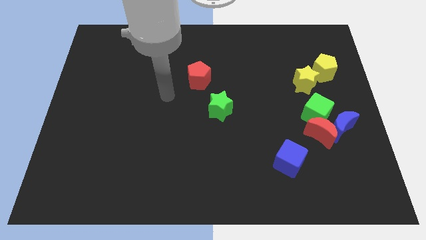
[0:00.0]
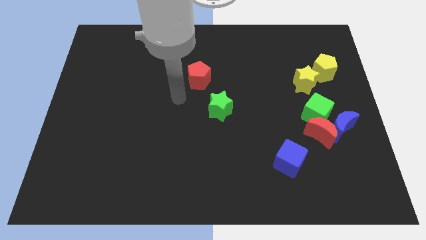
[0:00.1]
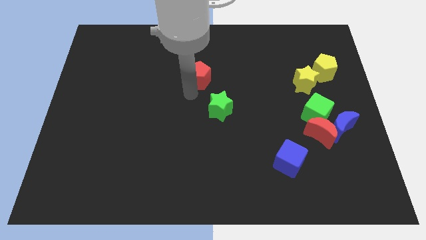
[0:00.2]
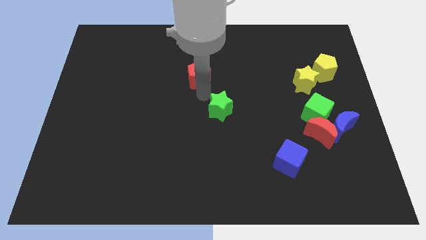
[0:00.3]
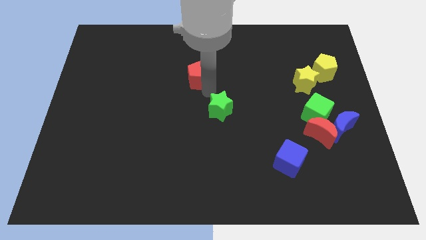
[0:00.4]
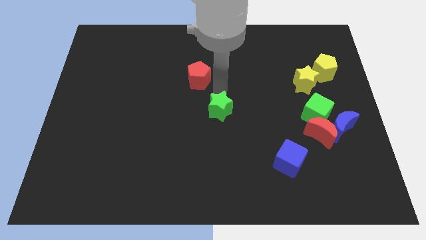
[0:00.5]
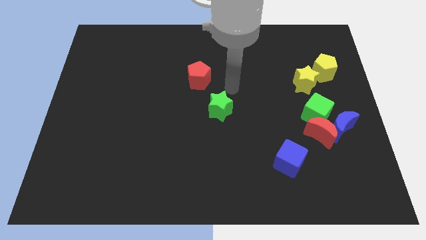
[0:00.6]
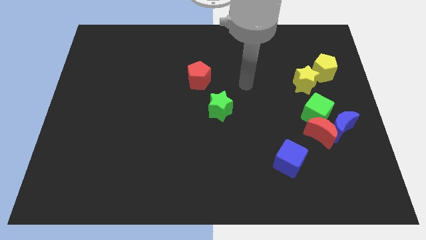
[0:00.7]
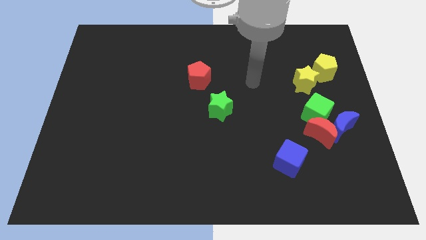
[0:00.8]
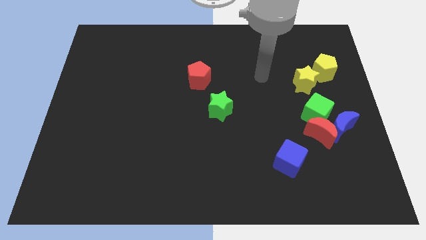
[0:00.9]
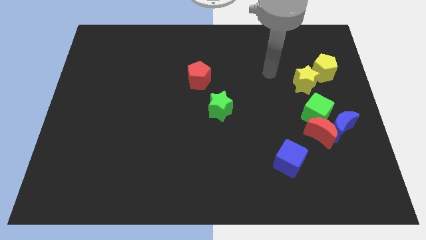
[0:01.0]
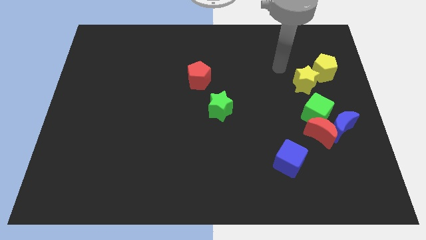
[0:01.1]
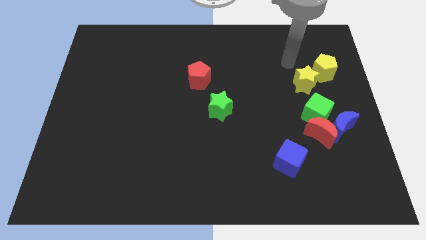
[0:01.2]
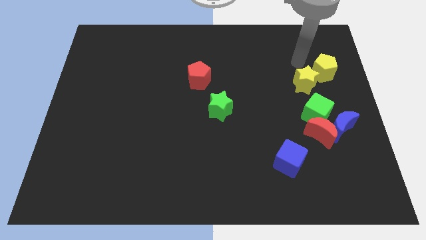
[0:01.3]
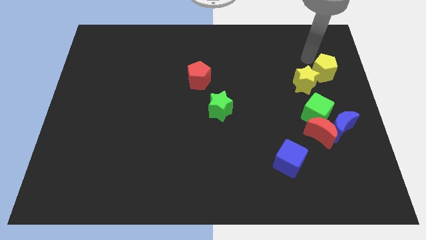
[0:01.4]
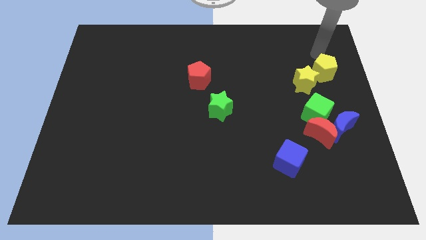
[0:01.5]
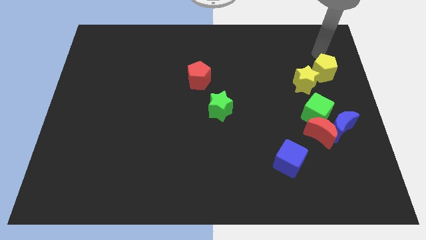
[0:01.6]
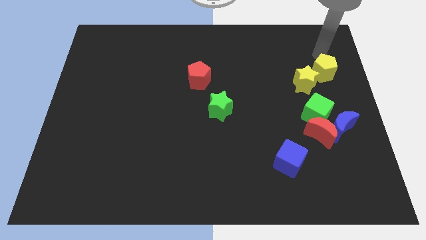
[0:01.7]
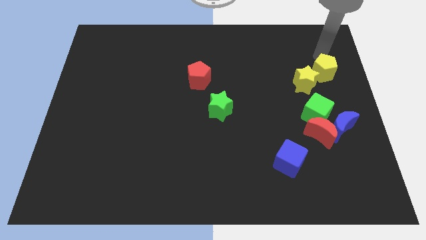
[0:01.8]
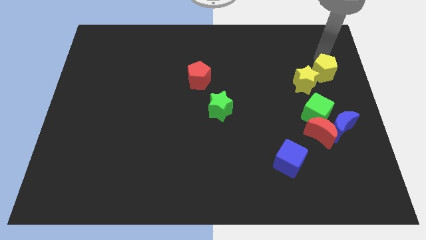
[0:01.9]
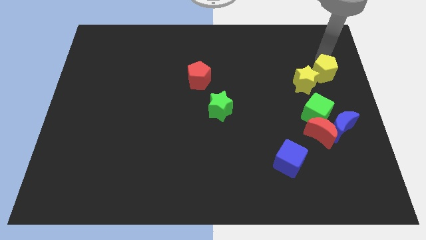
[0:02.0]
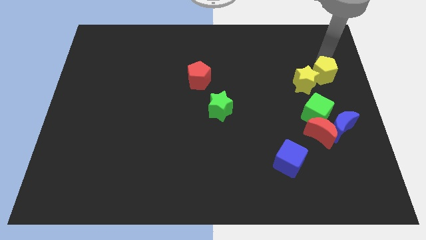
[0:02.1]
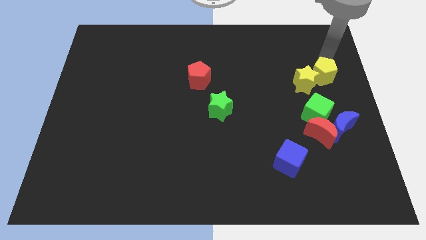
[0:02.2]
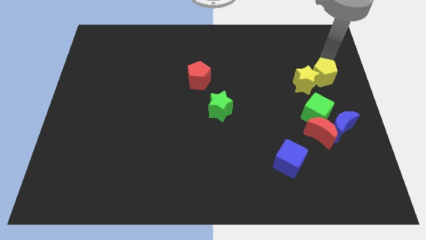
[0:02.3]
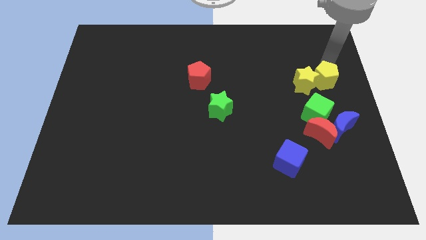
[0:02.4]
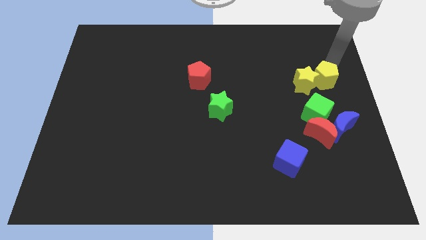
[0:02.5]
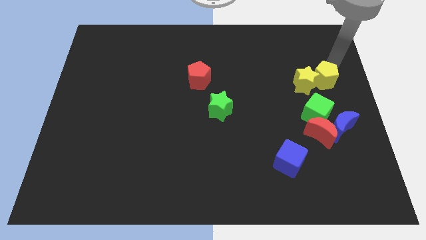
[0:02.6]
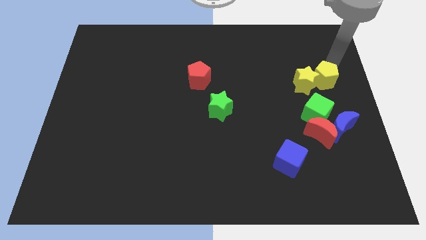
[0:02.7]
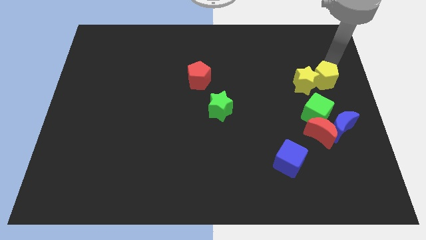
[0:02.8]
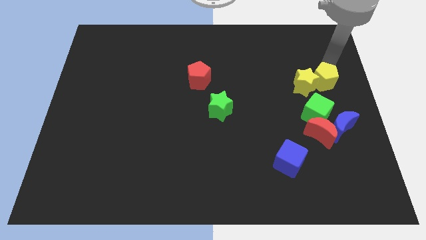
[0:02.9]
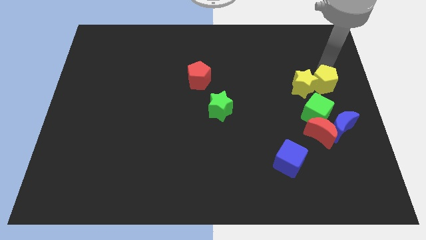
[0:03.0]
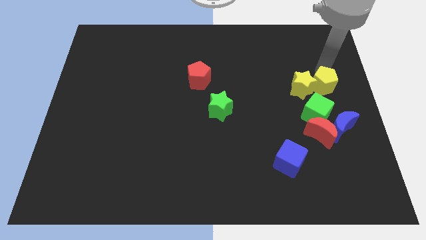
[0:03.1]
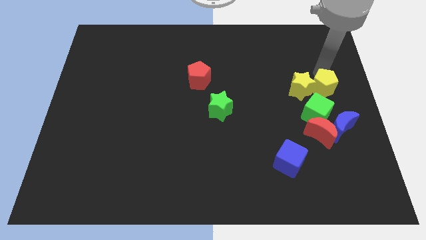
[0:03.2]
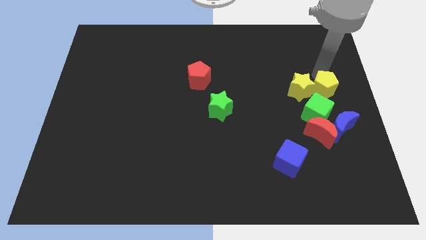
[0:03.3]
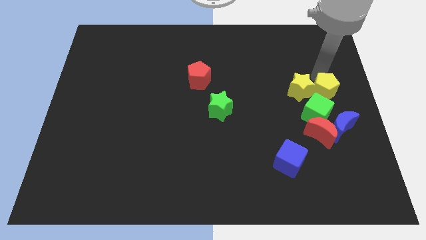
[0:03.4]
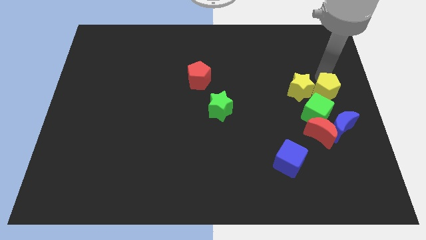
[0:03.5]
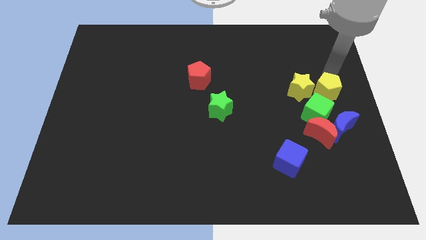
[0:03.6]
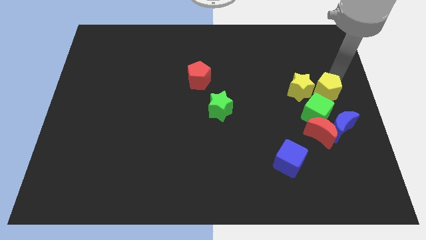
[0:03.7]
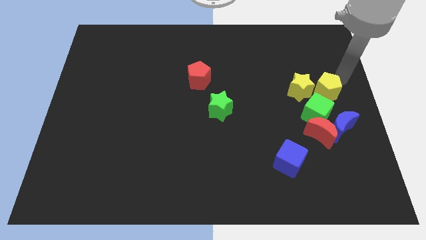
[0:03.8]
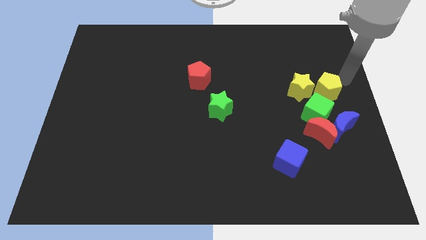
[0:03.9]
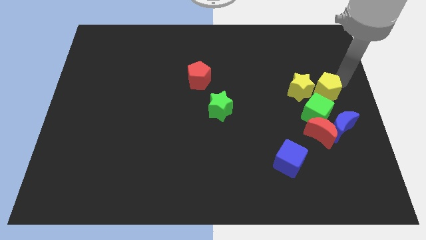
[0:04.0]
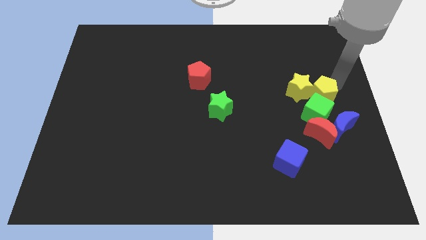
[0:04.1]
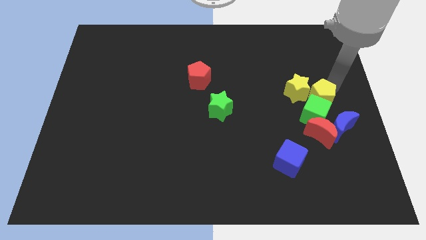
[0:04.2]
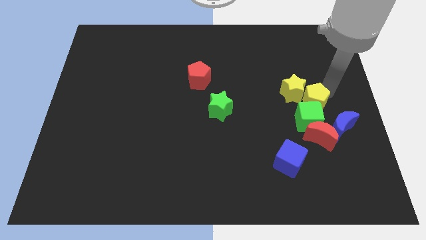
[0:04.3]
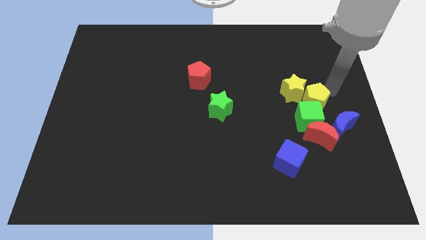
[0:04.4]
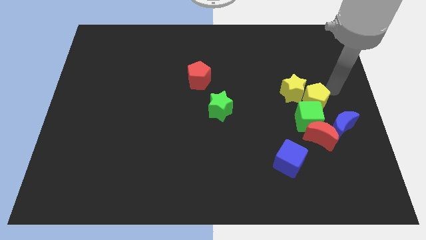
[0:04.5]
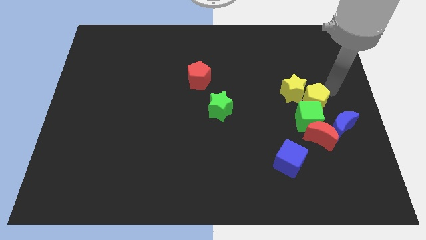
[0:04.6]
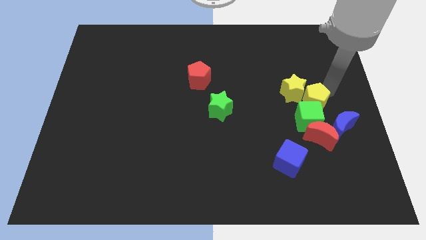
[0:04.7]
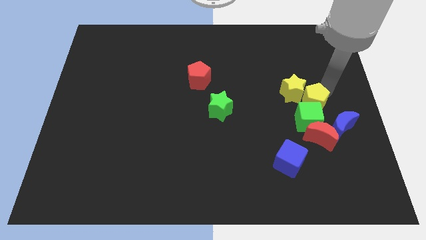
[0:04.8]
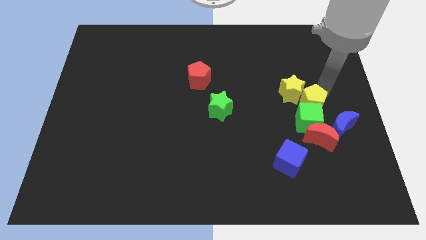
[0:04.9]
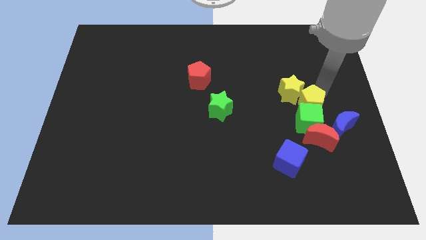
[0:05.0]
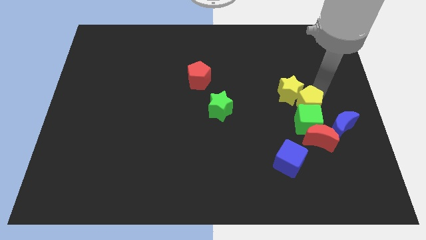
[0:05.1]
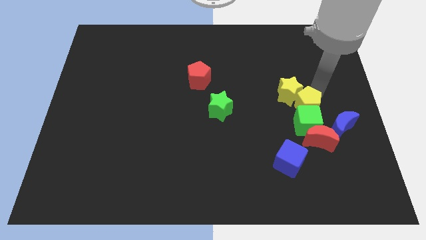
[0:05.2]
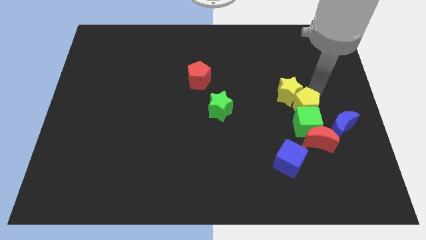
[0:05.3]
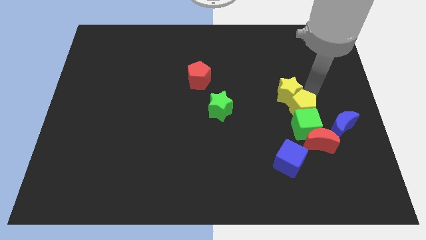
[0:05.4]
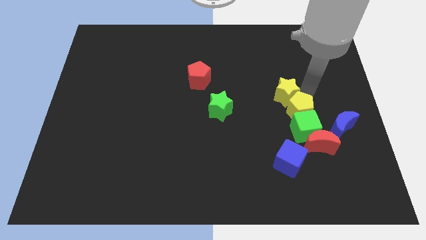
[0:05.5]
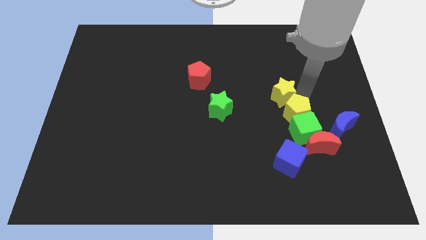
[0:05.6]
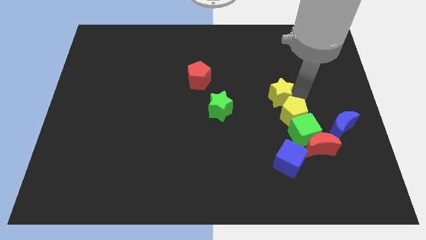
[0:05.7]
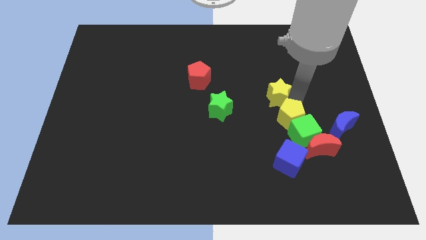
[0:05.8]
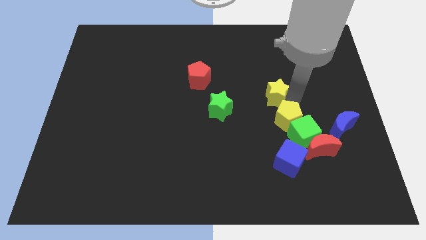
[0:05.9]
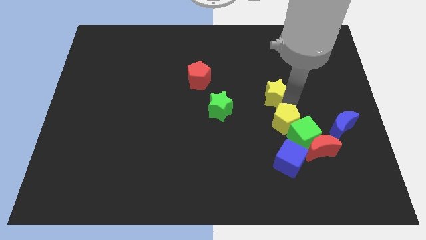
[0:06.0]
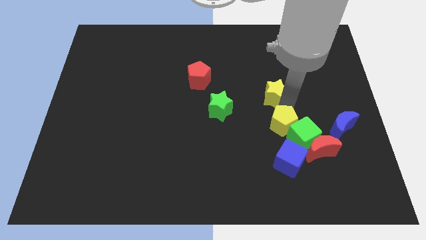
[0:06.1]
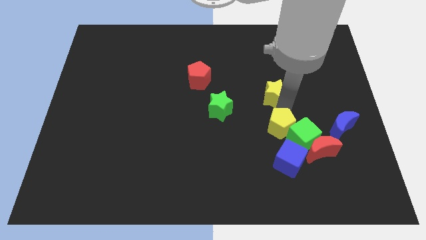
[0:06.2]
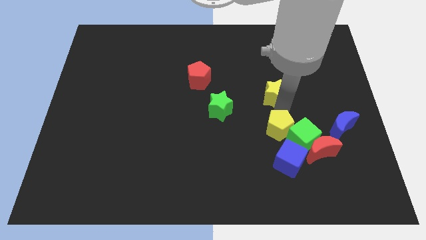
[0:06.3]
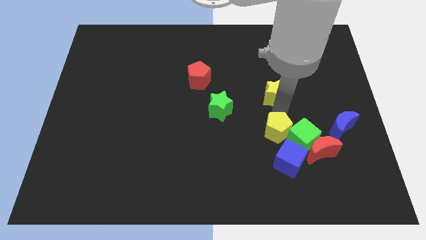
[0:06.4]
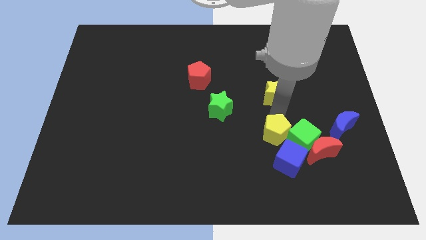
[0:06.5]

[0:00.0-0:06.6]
slide the yellow pentagon to the left of the red moon

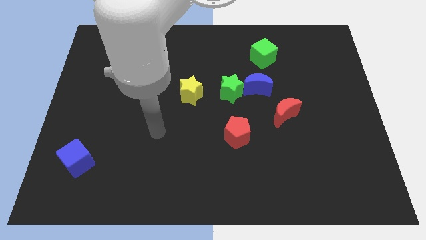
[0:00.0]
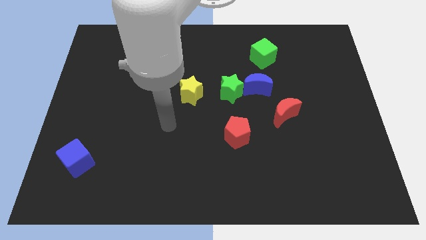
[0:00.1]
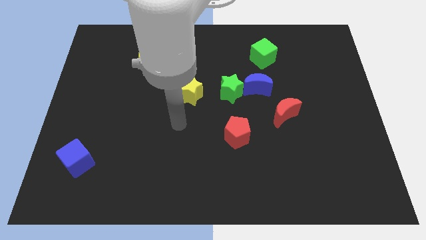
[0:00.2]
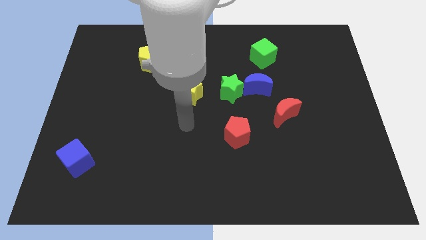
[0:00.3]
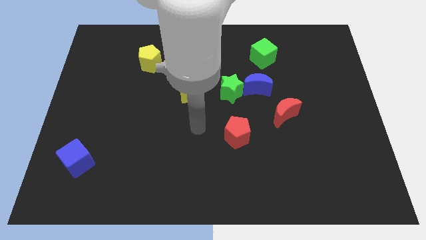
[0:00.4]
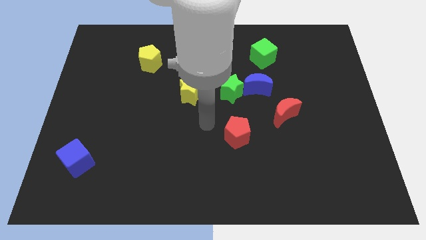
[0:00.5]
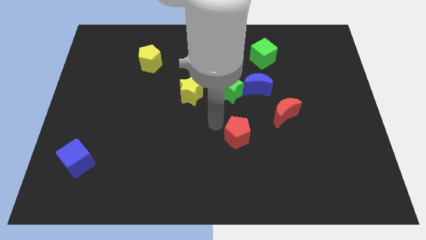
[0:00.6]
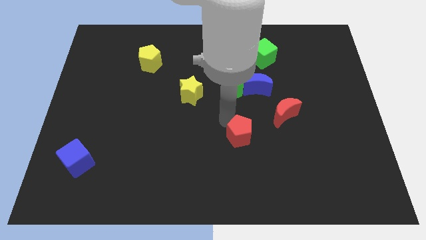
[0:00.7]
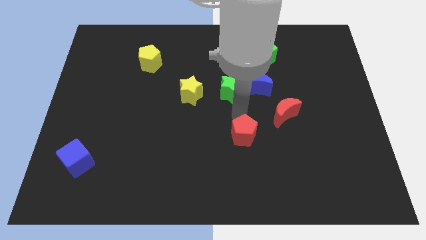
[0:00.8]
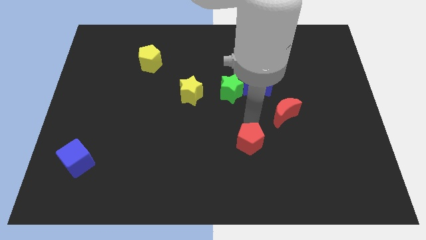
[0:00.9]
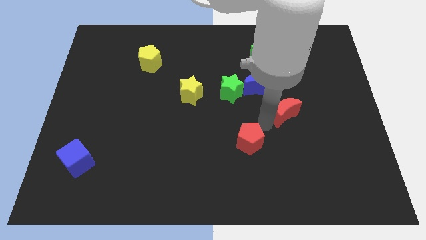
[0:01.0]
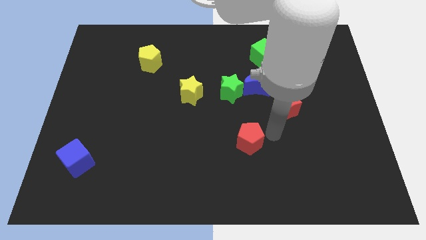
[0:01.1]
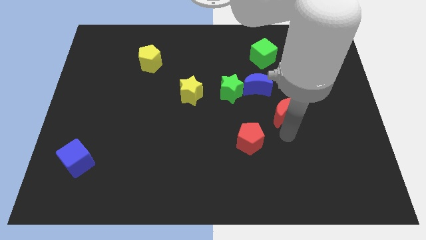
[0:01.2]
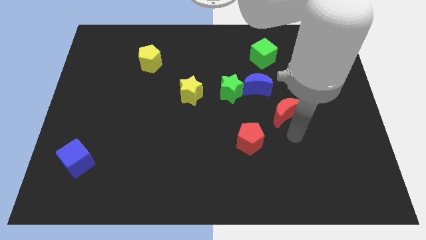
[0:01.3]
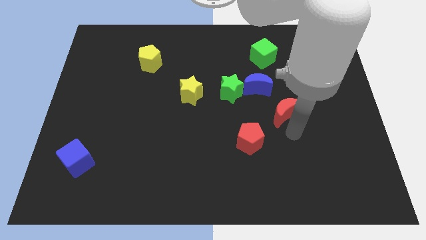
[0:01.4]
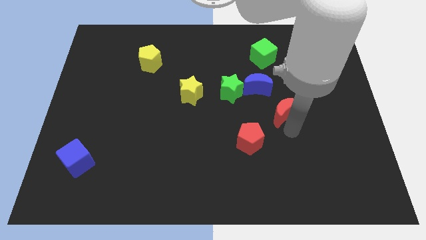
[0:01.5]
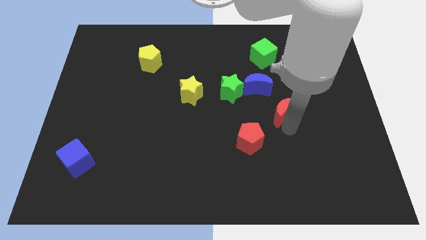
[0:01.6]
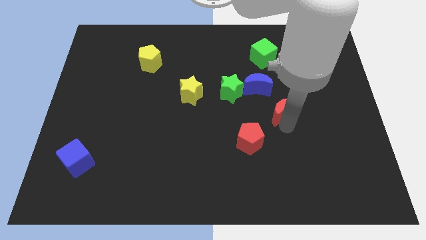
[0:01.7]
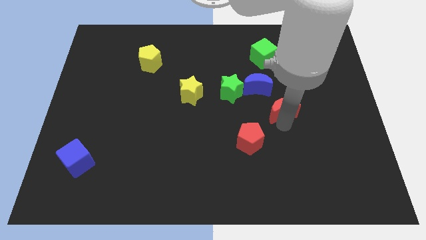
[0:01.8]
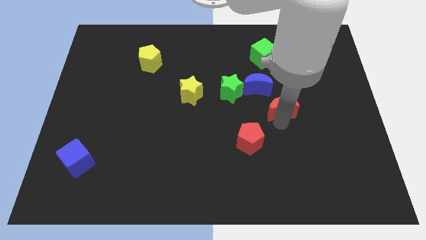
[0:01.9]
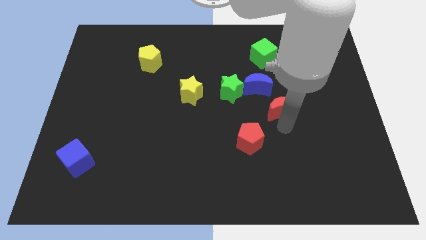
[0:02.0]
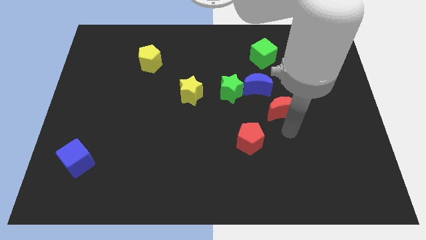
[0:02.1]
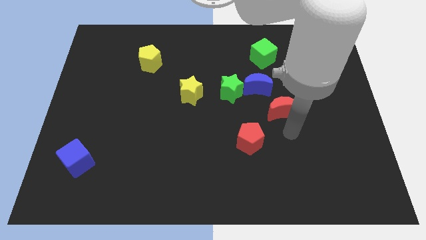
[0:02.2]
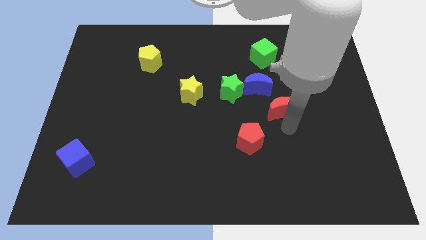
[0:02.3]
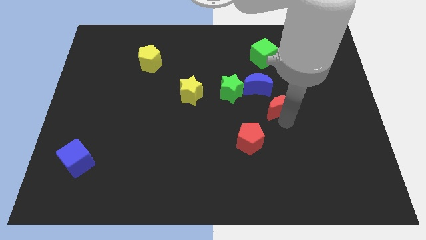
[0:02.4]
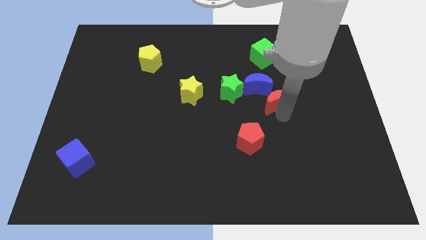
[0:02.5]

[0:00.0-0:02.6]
push the red moon to the right of the green star
